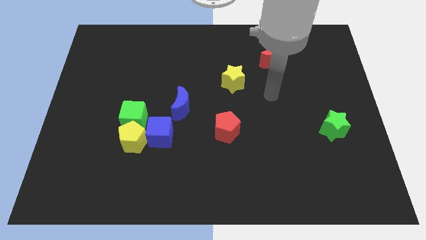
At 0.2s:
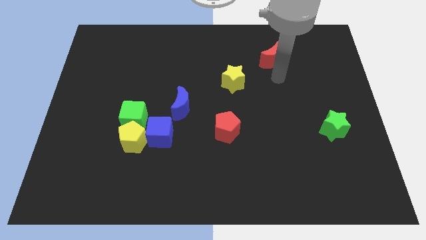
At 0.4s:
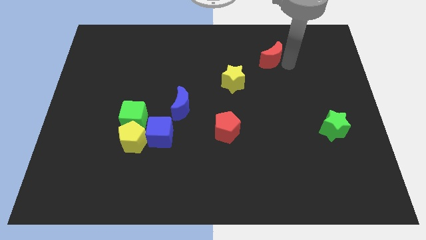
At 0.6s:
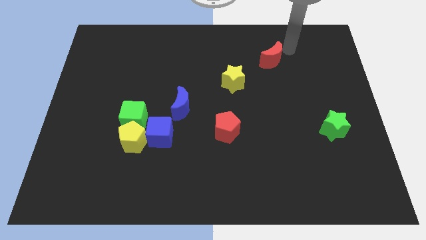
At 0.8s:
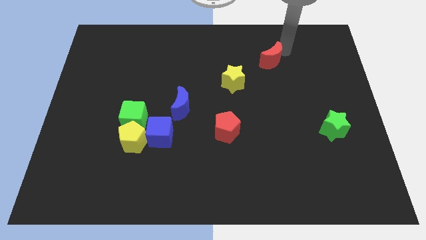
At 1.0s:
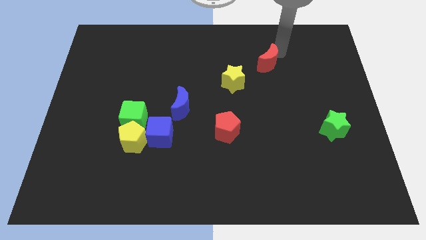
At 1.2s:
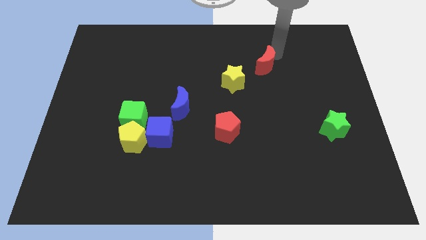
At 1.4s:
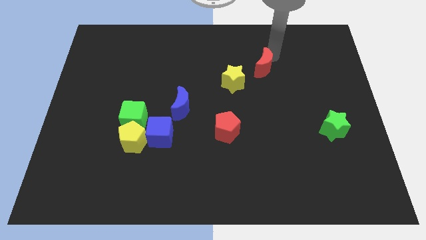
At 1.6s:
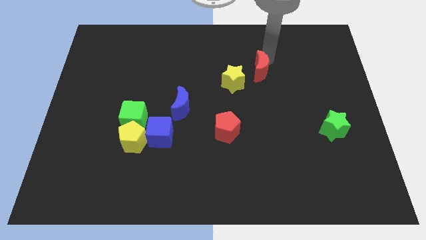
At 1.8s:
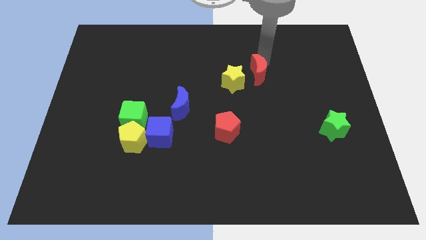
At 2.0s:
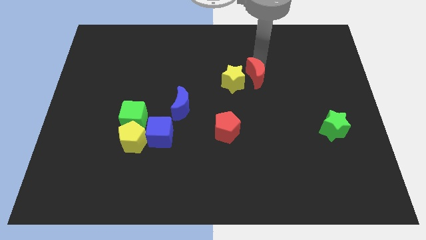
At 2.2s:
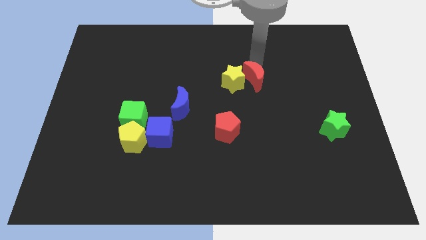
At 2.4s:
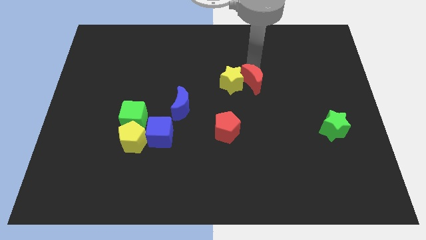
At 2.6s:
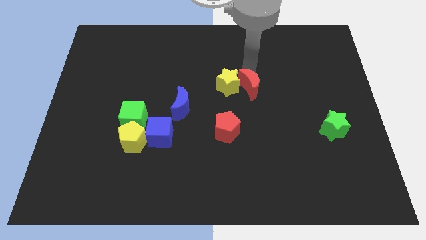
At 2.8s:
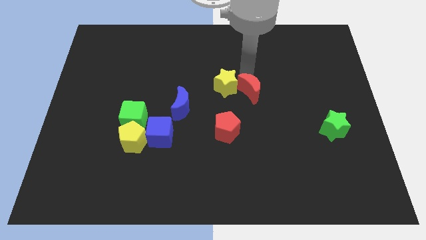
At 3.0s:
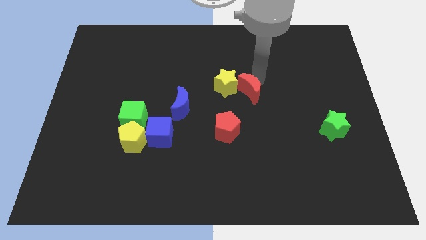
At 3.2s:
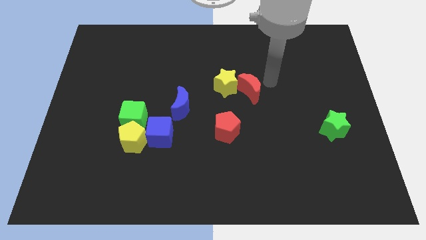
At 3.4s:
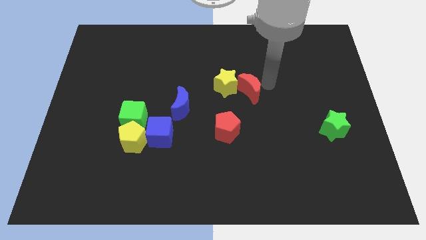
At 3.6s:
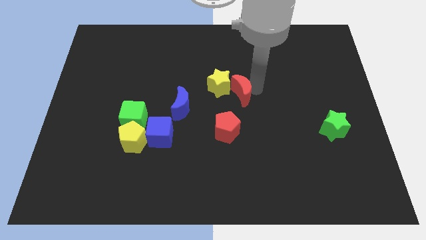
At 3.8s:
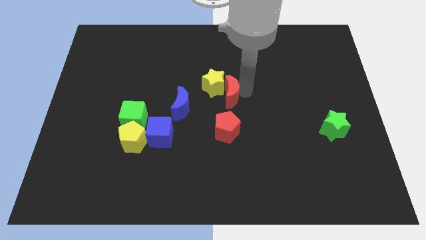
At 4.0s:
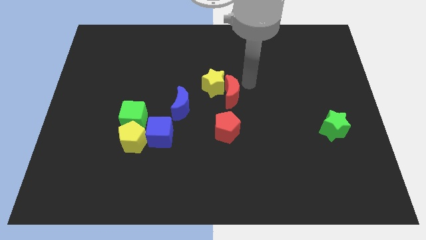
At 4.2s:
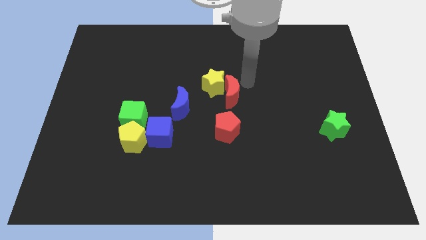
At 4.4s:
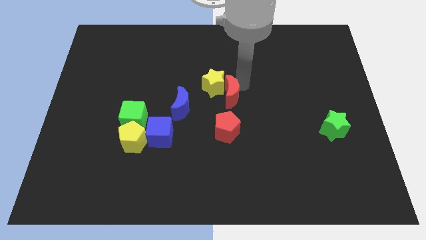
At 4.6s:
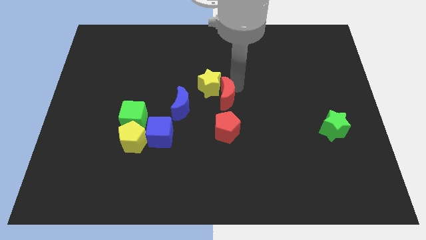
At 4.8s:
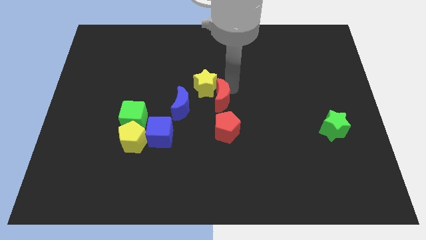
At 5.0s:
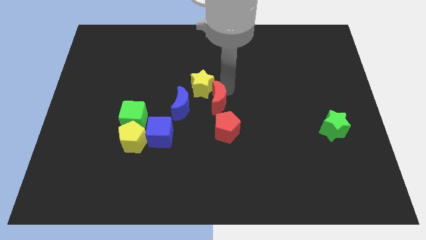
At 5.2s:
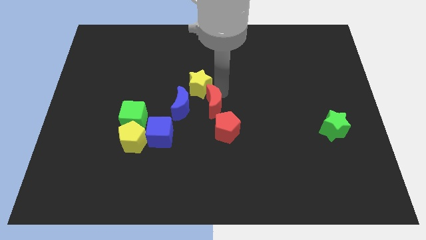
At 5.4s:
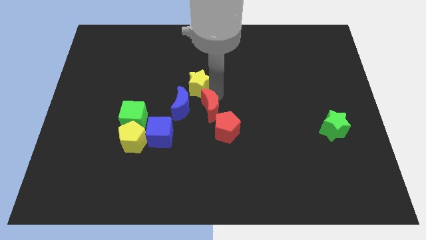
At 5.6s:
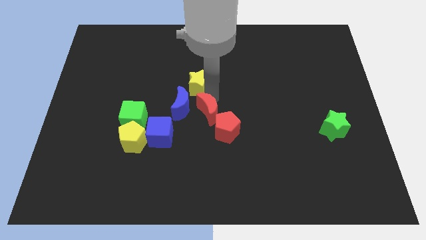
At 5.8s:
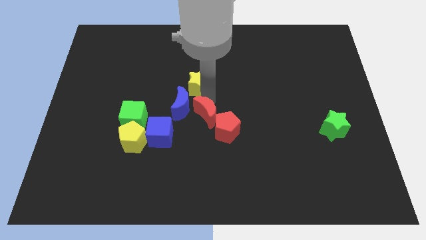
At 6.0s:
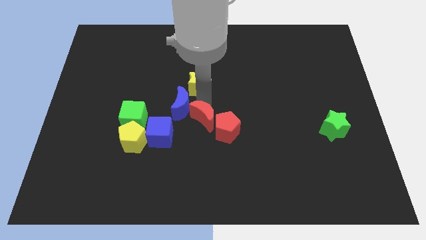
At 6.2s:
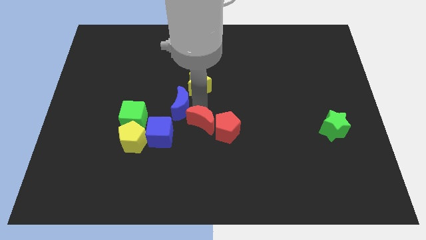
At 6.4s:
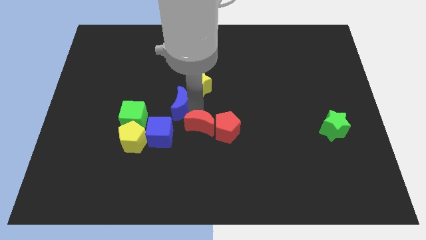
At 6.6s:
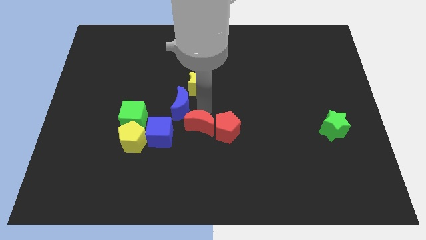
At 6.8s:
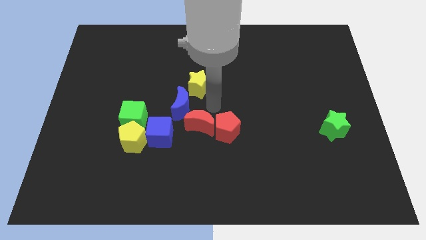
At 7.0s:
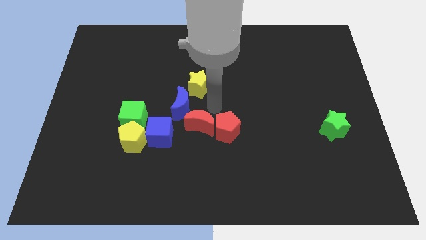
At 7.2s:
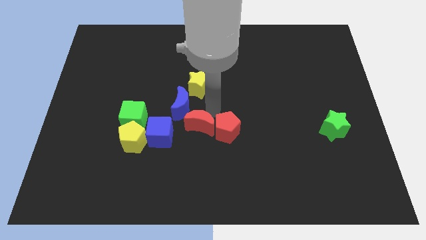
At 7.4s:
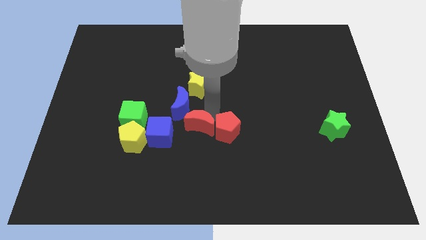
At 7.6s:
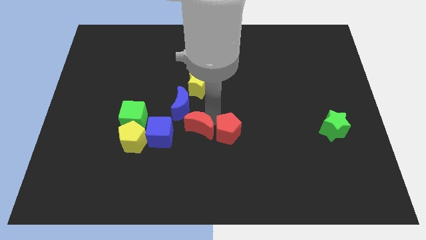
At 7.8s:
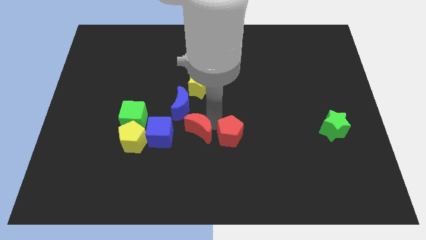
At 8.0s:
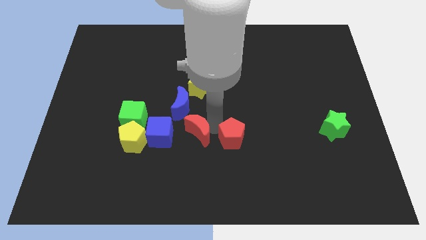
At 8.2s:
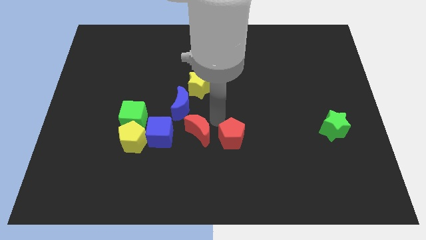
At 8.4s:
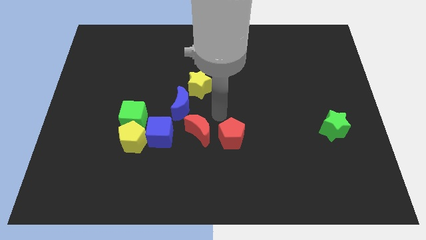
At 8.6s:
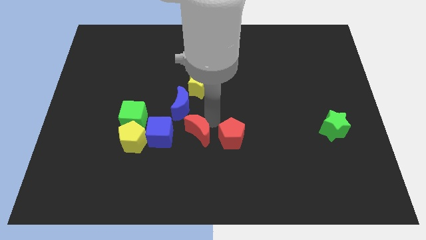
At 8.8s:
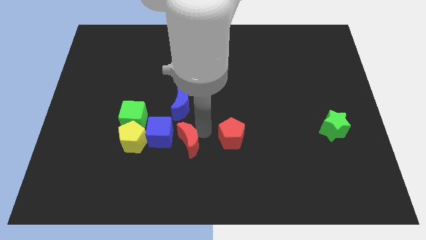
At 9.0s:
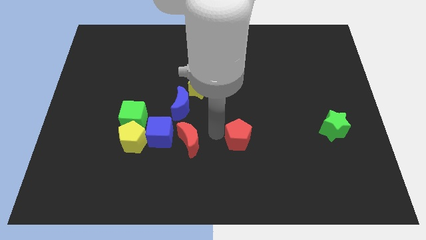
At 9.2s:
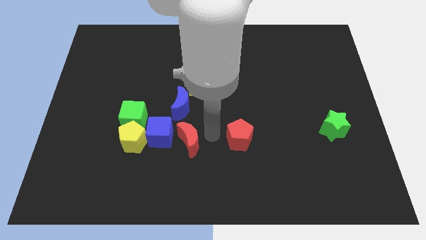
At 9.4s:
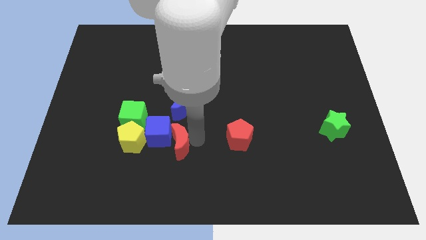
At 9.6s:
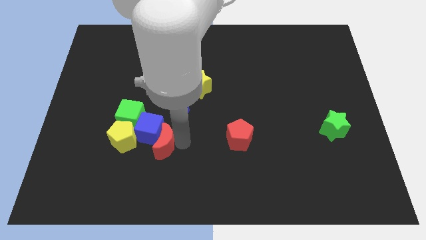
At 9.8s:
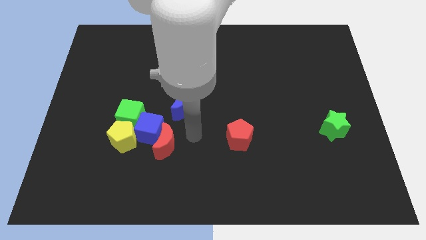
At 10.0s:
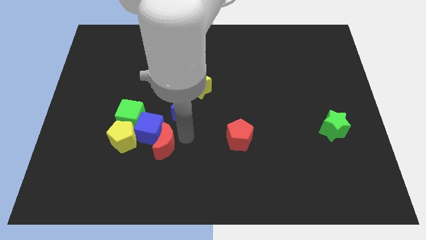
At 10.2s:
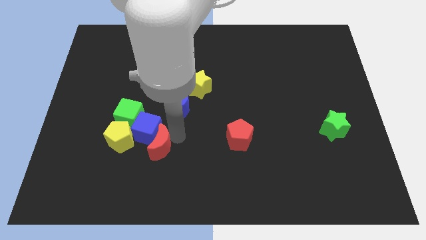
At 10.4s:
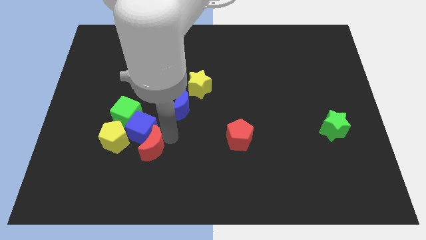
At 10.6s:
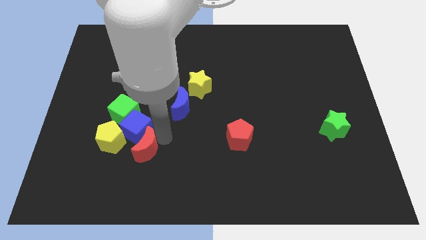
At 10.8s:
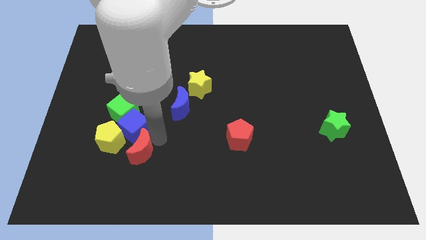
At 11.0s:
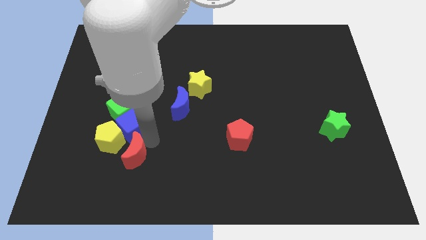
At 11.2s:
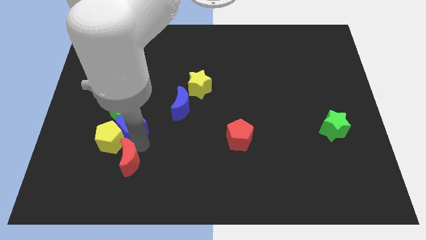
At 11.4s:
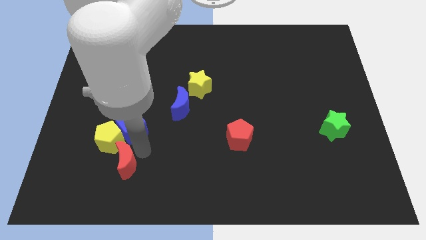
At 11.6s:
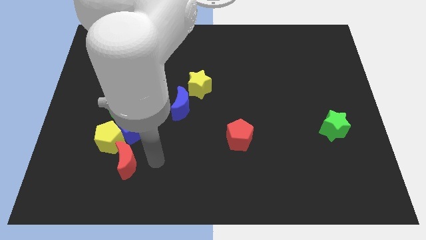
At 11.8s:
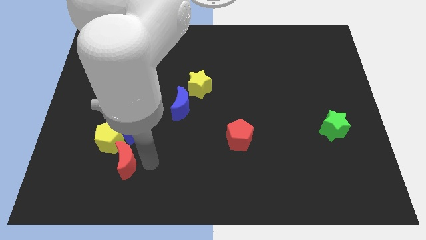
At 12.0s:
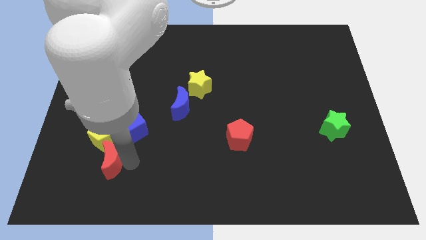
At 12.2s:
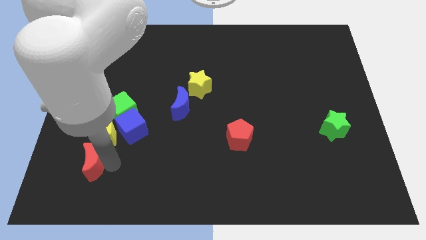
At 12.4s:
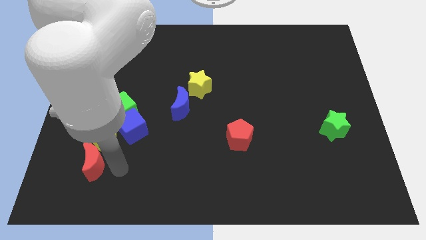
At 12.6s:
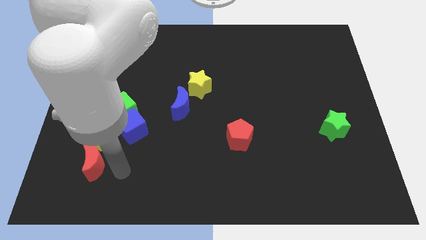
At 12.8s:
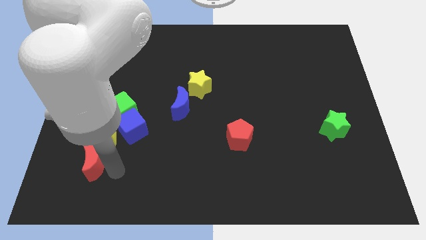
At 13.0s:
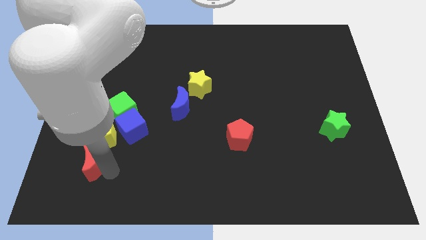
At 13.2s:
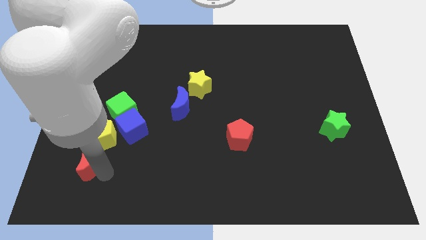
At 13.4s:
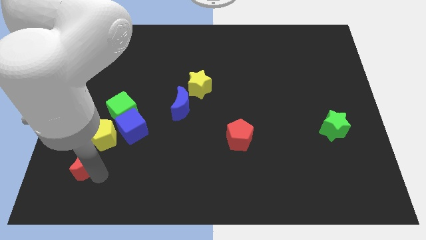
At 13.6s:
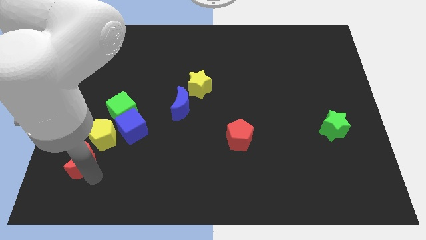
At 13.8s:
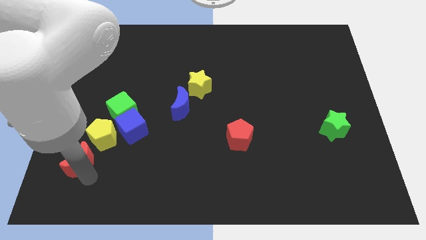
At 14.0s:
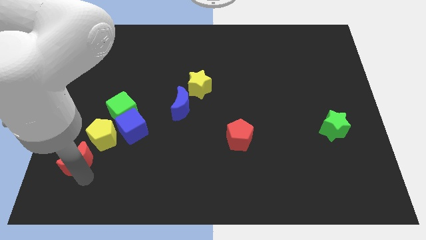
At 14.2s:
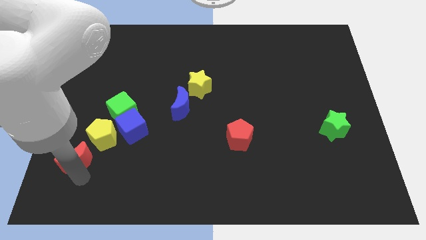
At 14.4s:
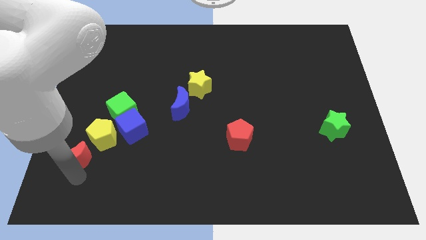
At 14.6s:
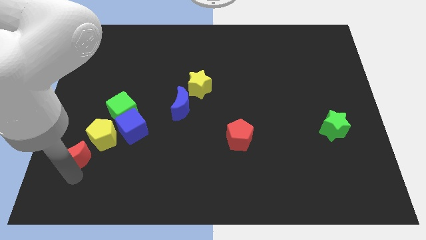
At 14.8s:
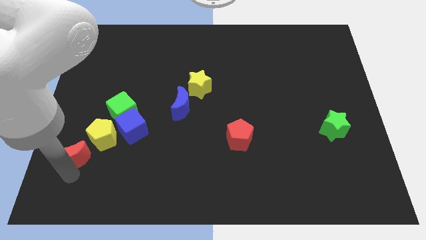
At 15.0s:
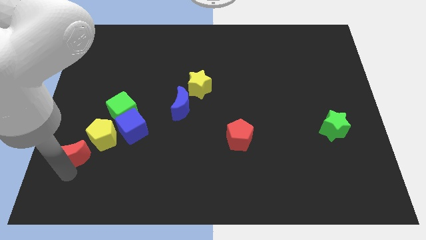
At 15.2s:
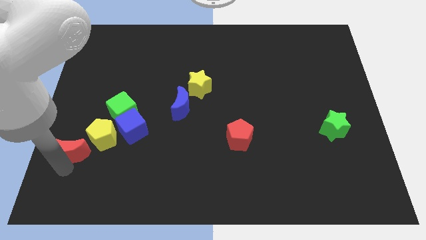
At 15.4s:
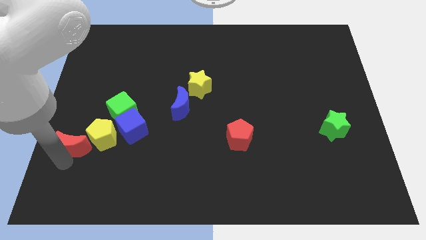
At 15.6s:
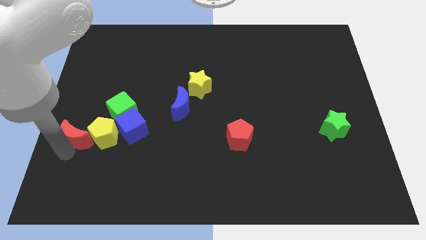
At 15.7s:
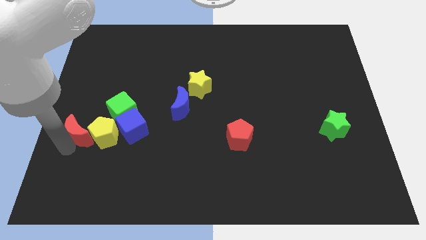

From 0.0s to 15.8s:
move the red moon to the bottom left of the yellow pentagon
